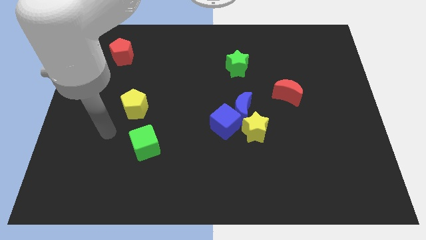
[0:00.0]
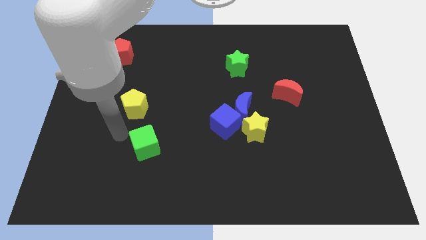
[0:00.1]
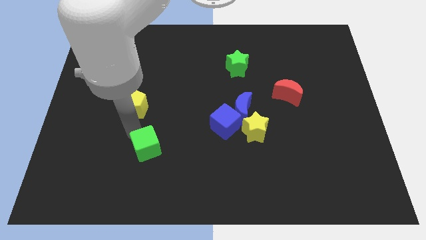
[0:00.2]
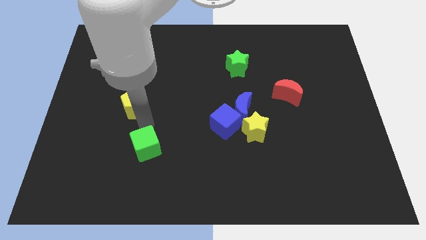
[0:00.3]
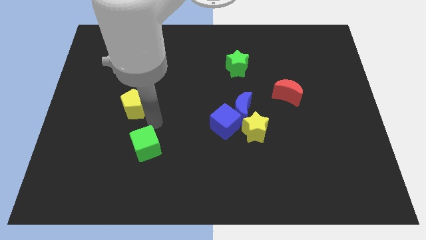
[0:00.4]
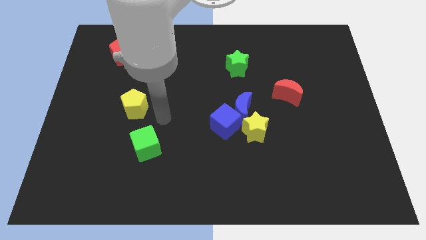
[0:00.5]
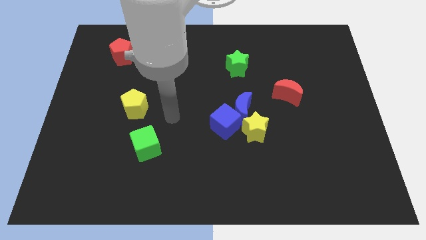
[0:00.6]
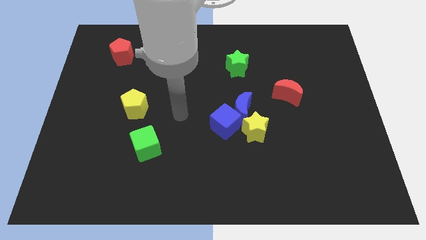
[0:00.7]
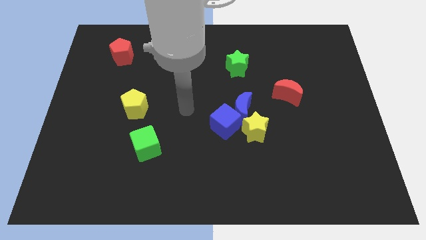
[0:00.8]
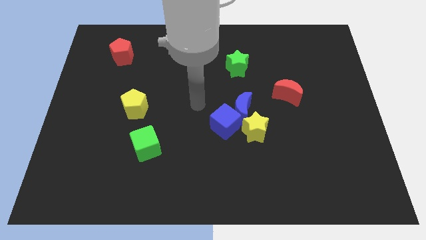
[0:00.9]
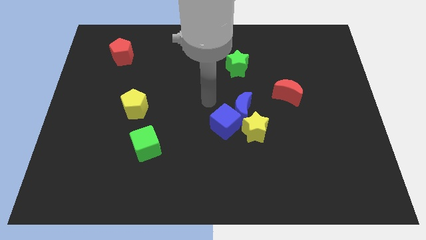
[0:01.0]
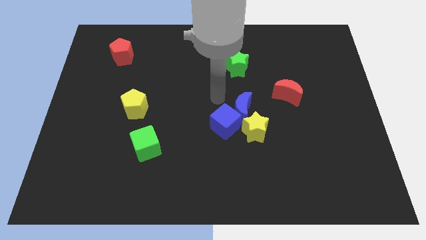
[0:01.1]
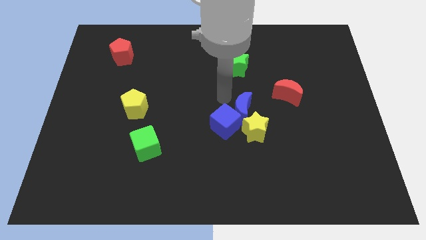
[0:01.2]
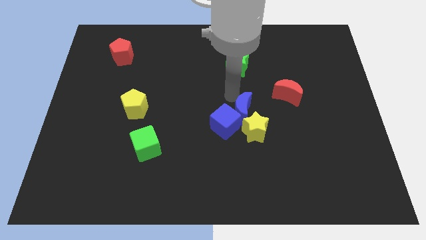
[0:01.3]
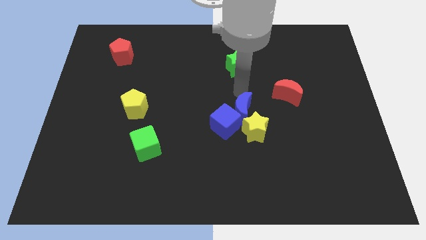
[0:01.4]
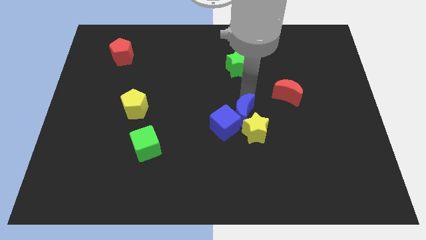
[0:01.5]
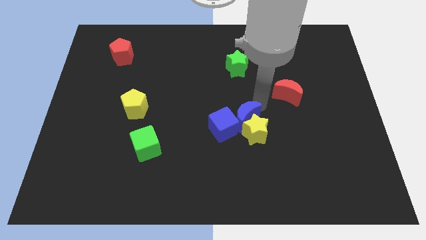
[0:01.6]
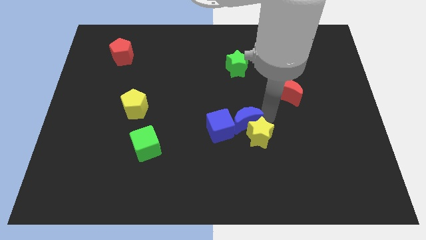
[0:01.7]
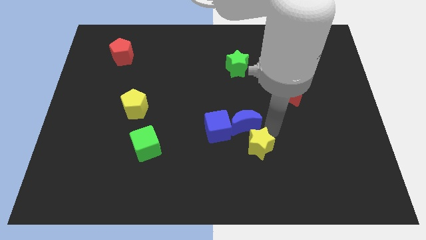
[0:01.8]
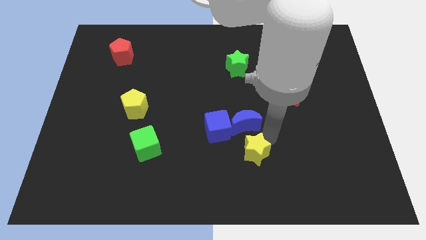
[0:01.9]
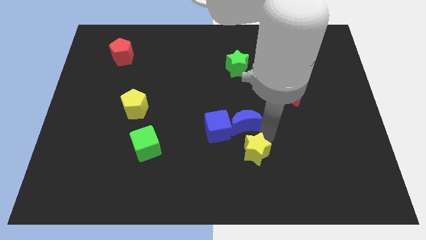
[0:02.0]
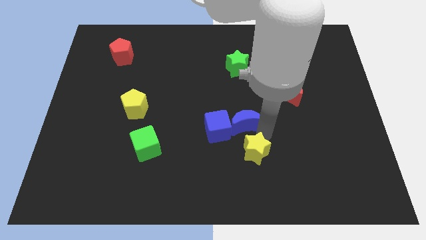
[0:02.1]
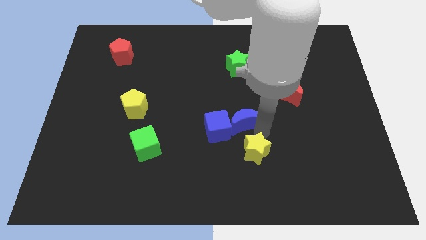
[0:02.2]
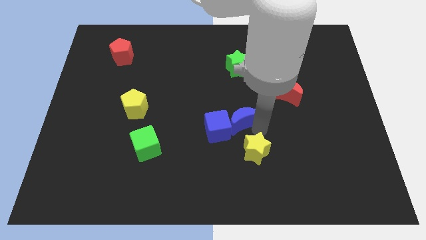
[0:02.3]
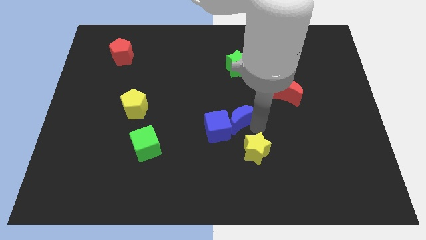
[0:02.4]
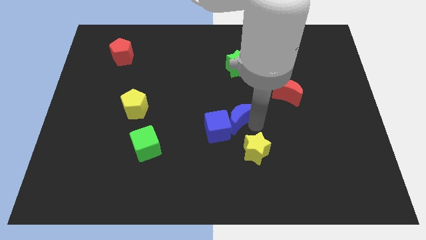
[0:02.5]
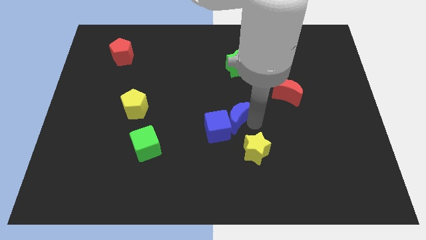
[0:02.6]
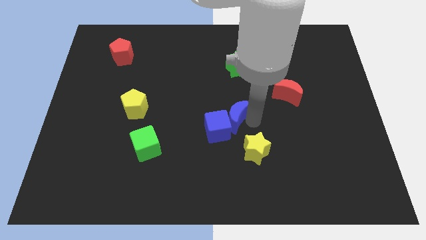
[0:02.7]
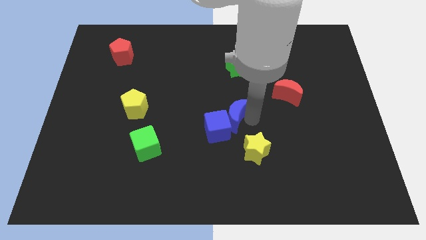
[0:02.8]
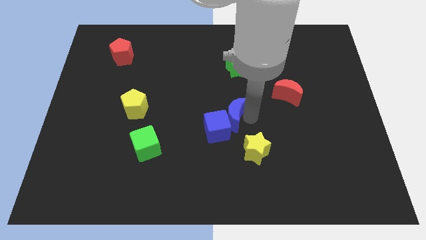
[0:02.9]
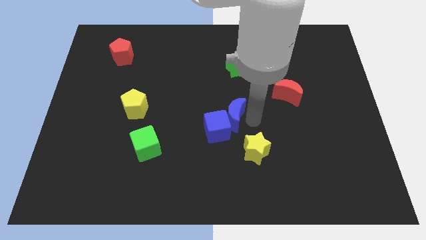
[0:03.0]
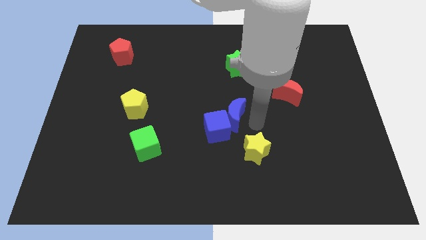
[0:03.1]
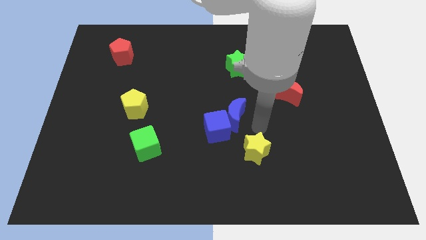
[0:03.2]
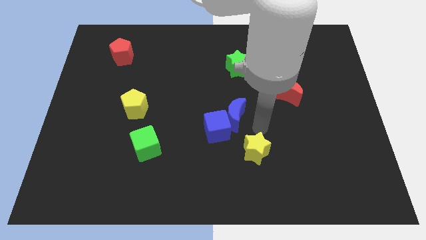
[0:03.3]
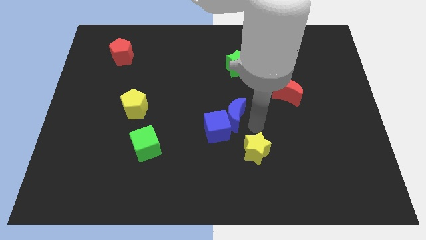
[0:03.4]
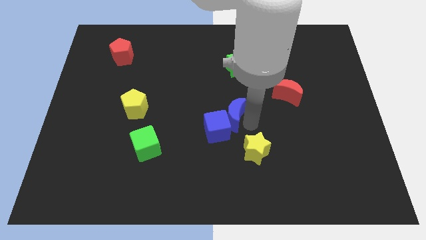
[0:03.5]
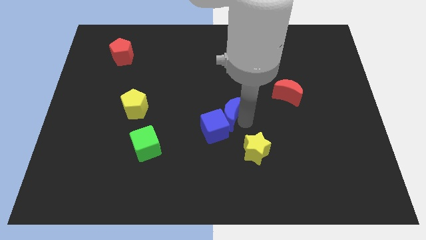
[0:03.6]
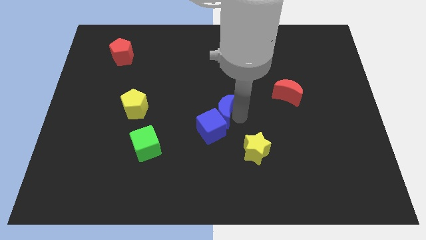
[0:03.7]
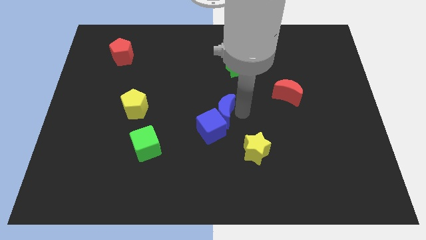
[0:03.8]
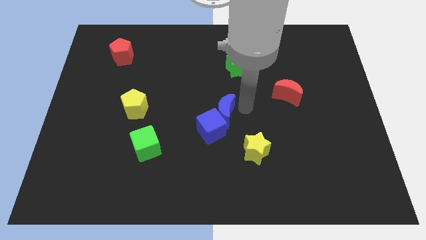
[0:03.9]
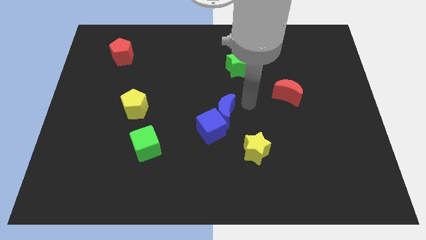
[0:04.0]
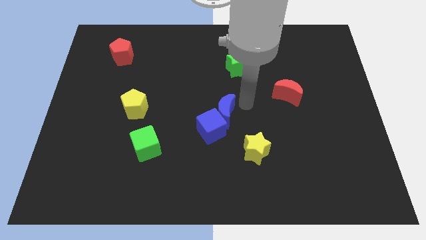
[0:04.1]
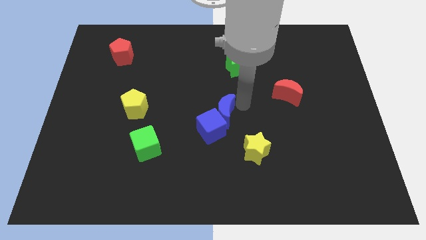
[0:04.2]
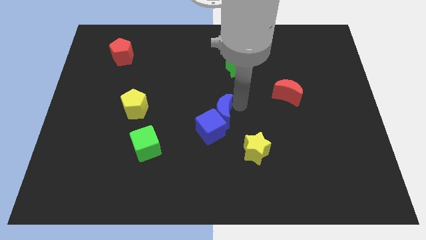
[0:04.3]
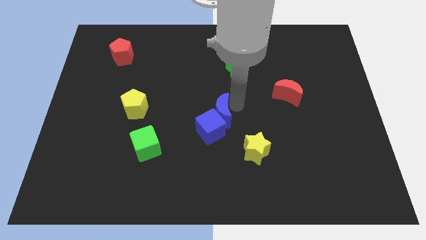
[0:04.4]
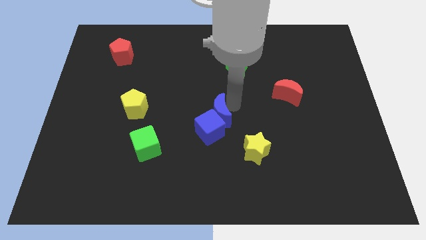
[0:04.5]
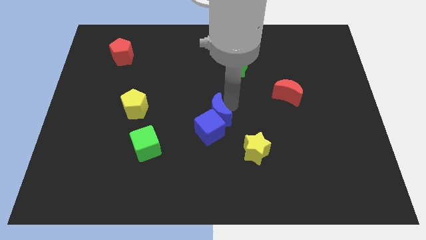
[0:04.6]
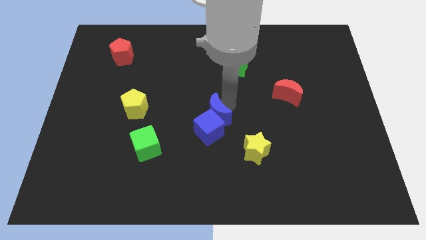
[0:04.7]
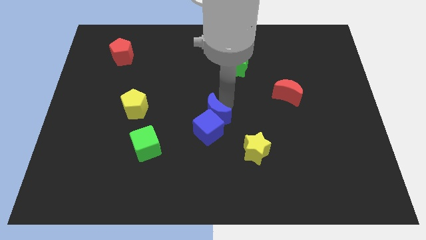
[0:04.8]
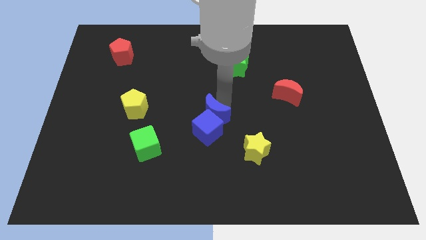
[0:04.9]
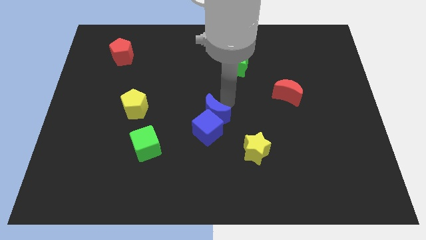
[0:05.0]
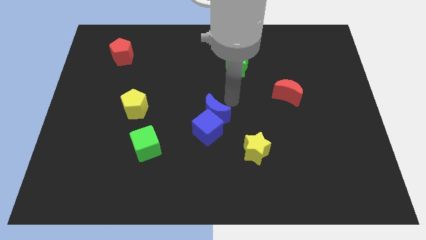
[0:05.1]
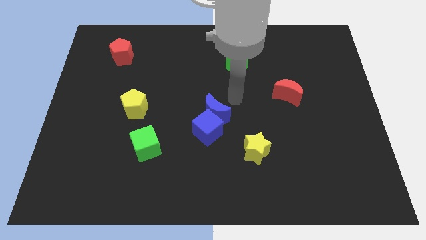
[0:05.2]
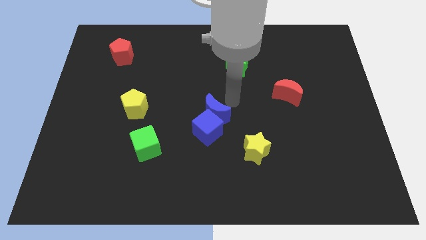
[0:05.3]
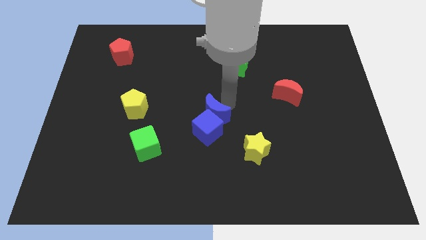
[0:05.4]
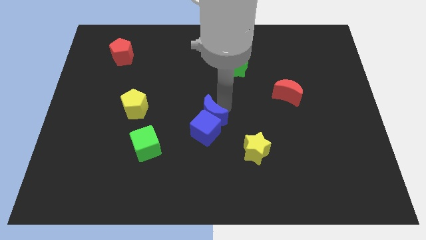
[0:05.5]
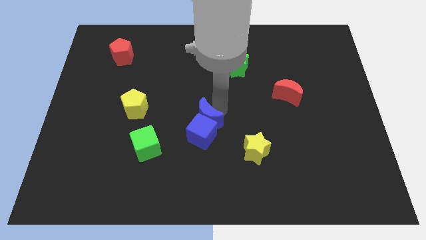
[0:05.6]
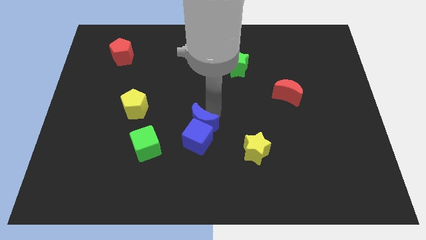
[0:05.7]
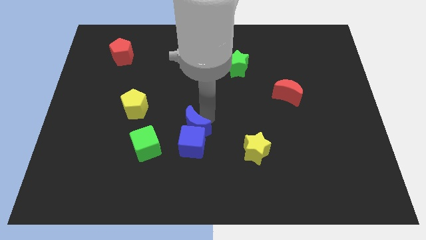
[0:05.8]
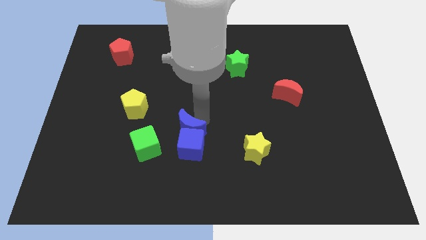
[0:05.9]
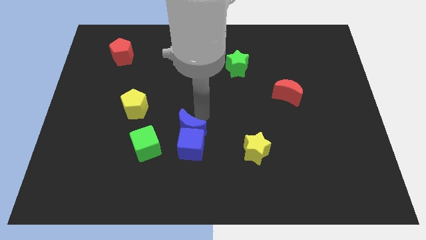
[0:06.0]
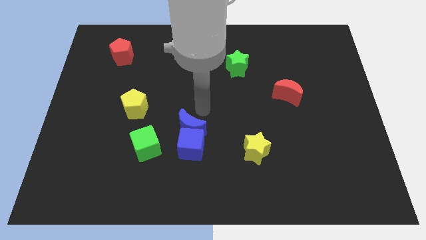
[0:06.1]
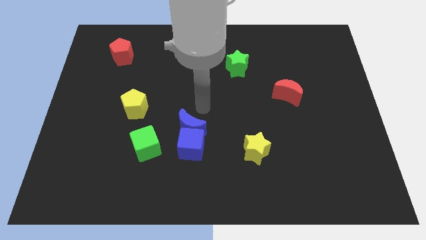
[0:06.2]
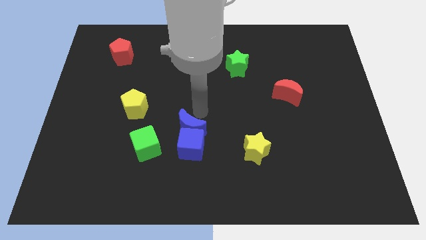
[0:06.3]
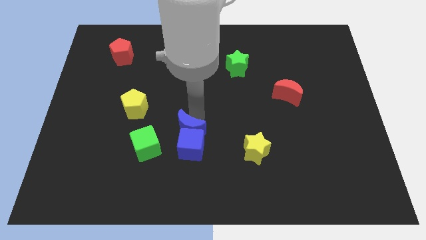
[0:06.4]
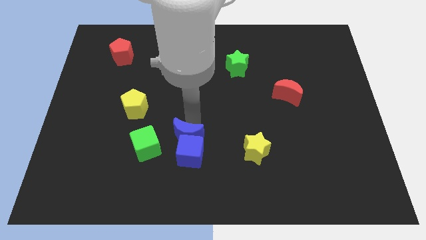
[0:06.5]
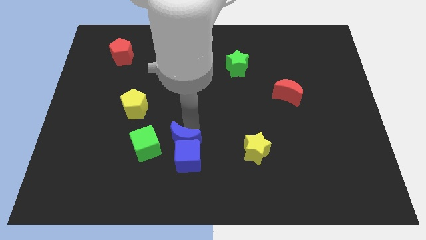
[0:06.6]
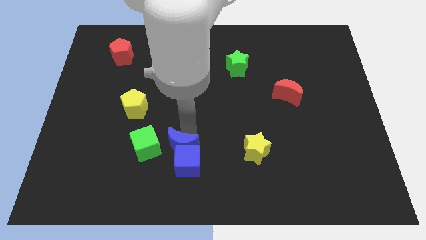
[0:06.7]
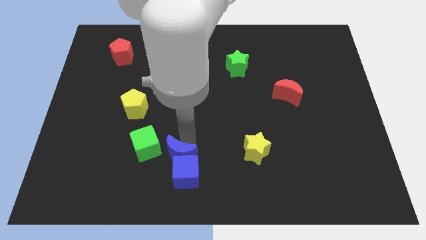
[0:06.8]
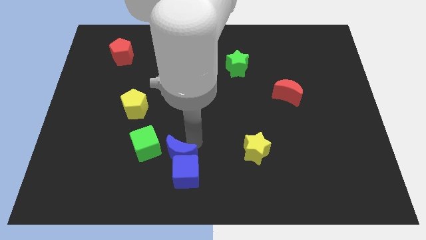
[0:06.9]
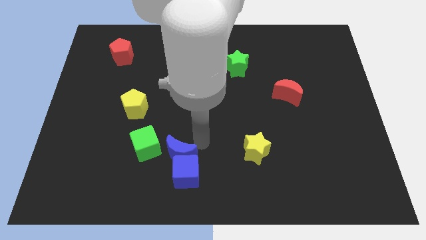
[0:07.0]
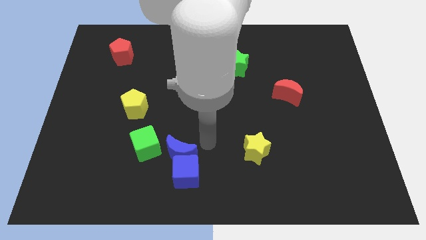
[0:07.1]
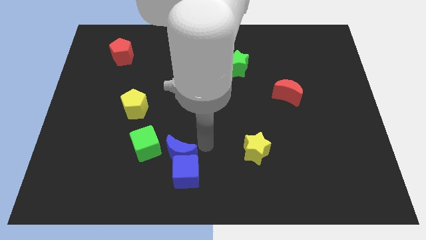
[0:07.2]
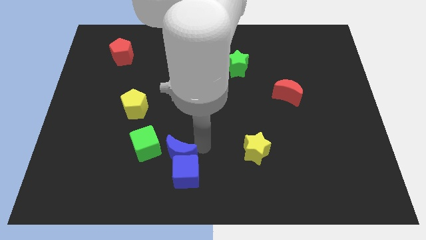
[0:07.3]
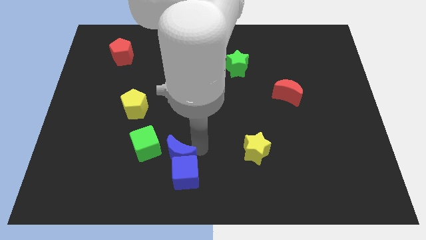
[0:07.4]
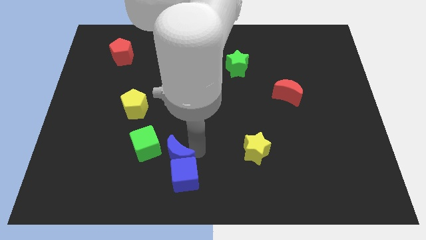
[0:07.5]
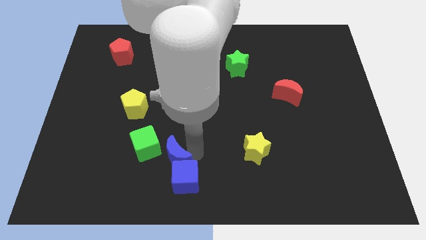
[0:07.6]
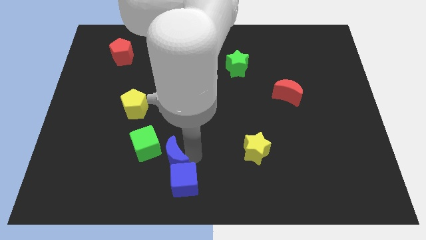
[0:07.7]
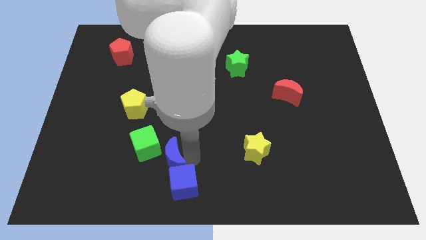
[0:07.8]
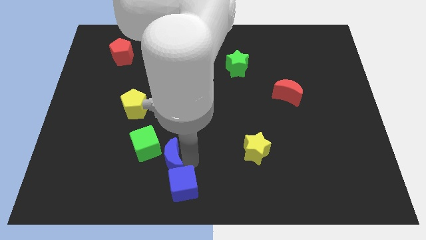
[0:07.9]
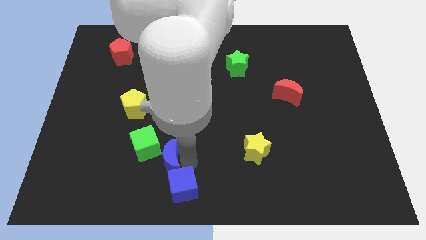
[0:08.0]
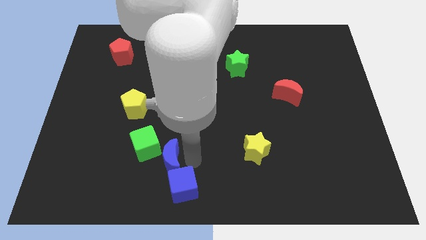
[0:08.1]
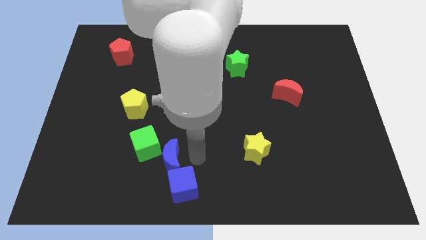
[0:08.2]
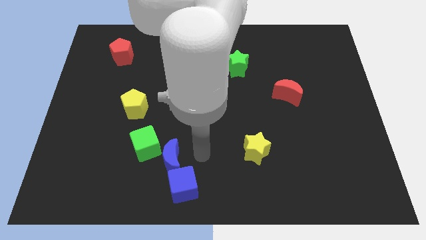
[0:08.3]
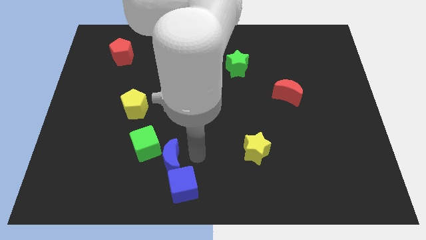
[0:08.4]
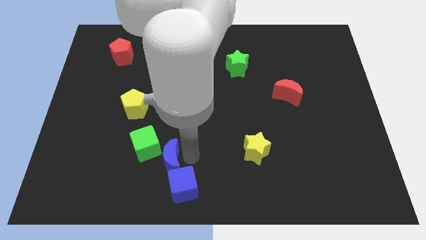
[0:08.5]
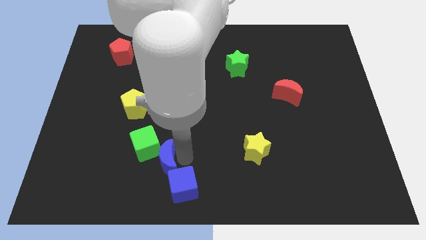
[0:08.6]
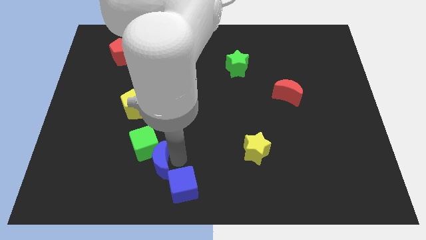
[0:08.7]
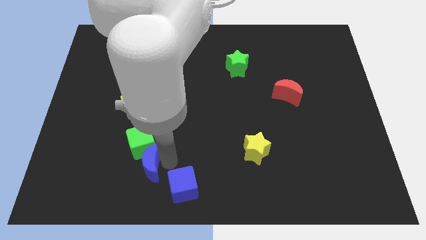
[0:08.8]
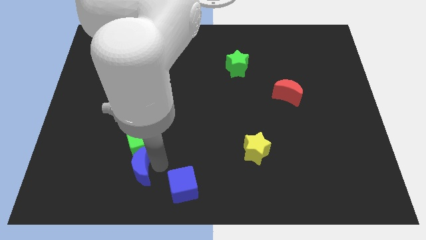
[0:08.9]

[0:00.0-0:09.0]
slide the blue moon to the bottom left side of the green cube
